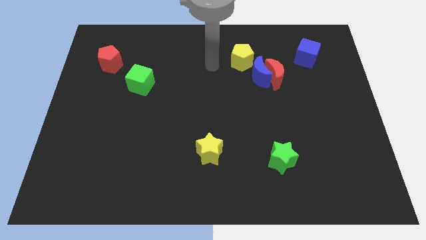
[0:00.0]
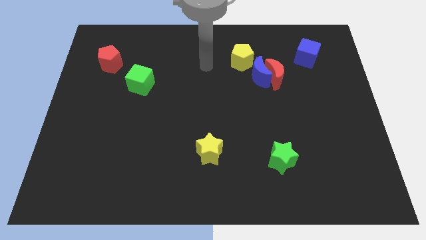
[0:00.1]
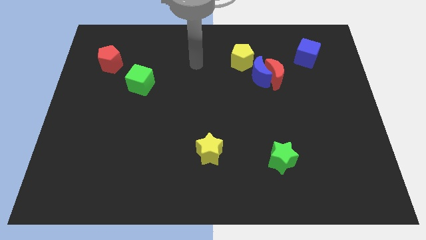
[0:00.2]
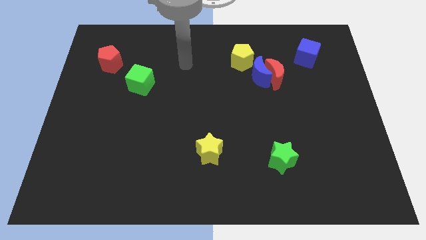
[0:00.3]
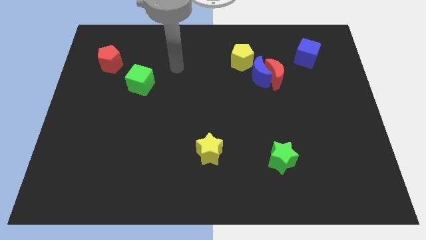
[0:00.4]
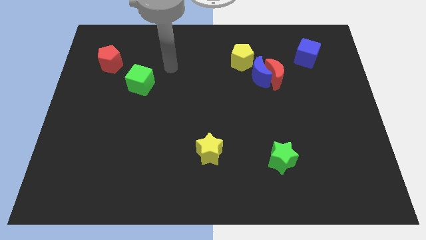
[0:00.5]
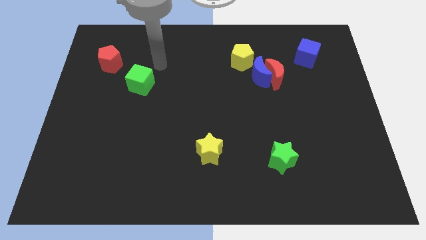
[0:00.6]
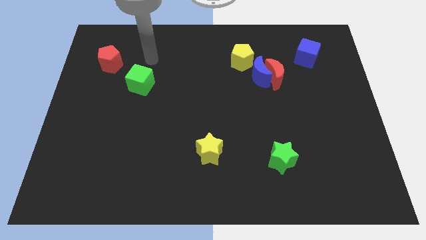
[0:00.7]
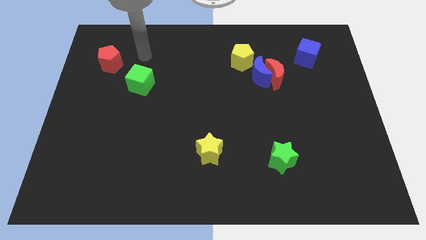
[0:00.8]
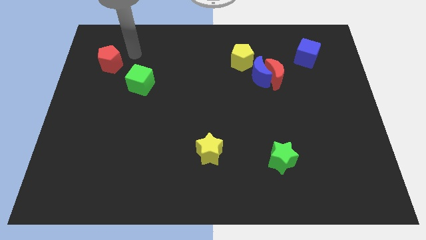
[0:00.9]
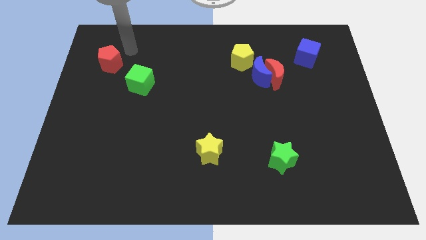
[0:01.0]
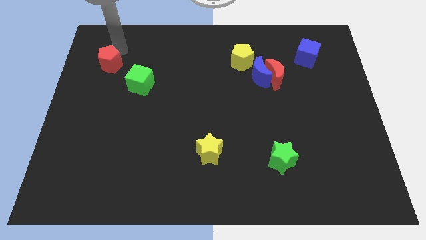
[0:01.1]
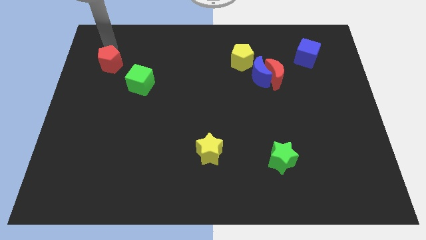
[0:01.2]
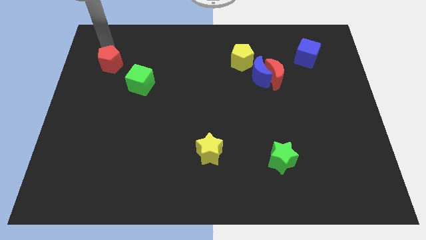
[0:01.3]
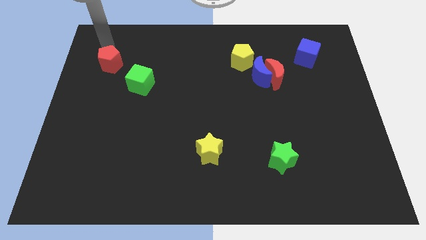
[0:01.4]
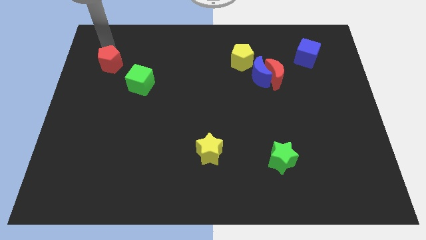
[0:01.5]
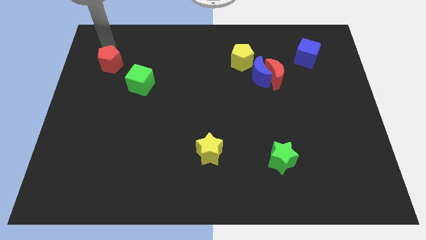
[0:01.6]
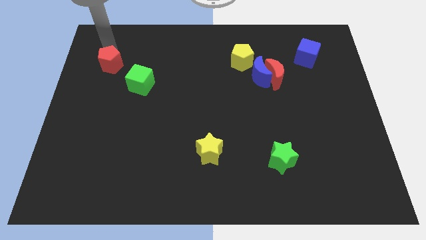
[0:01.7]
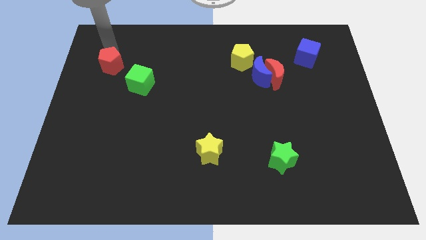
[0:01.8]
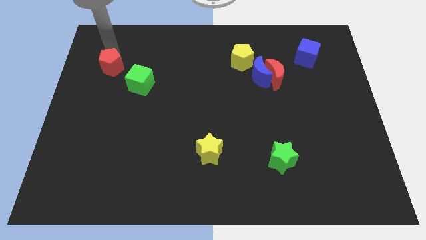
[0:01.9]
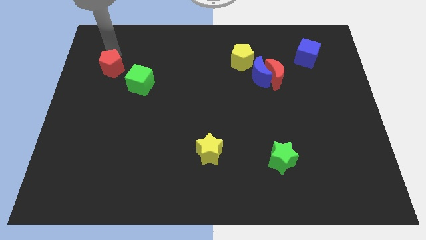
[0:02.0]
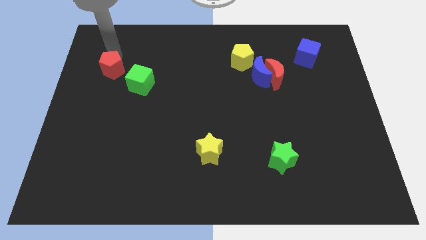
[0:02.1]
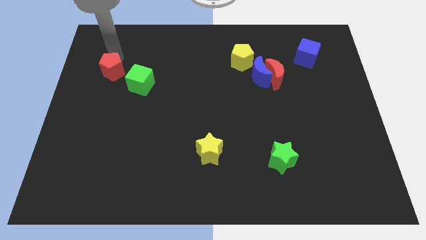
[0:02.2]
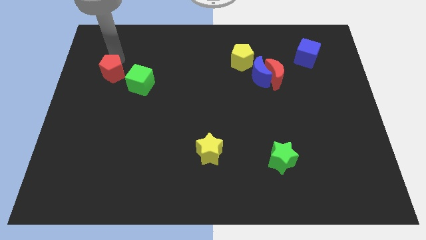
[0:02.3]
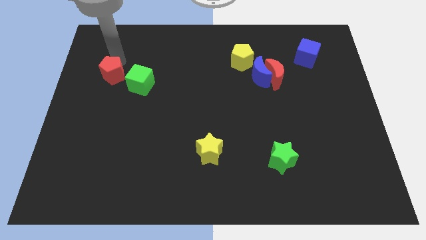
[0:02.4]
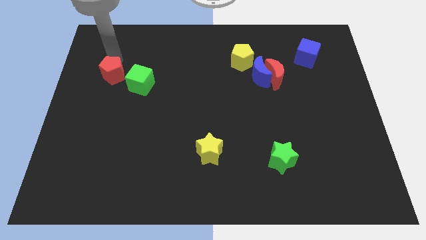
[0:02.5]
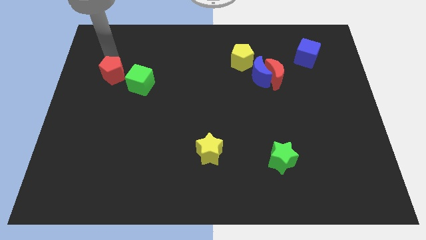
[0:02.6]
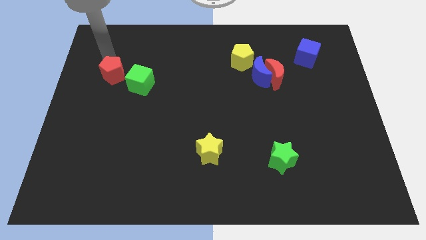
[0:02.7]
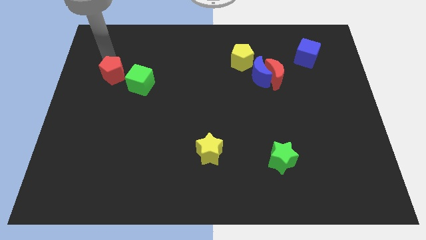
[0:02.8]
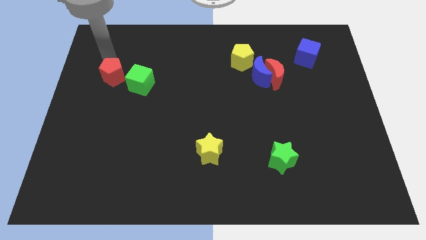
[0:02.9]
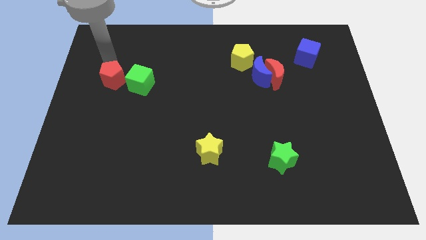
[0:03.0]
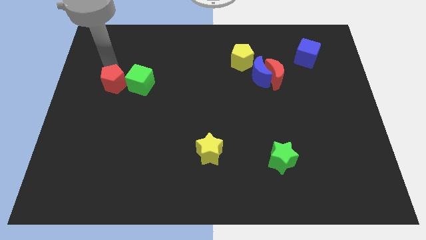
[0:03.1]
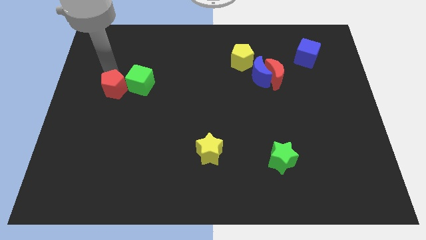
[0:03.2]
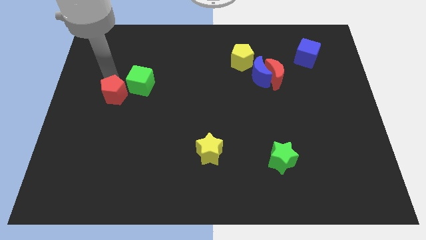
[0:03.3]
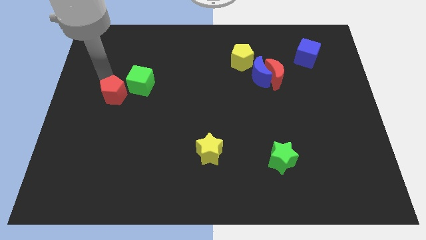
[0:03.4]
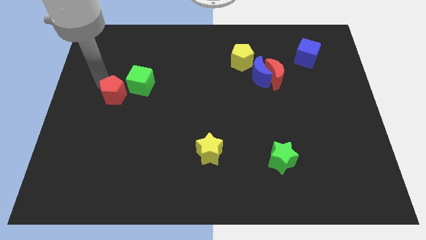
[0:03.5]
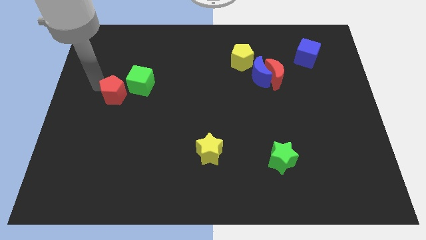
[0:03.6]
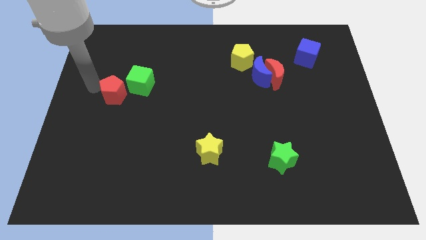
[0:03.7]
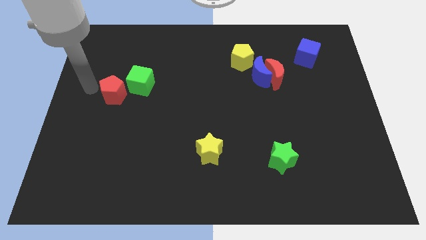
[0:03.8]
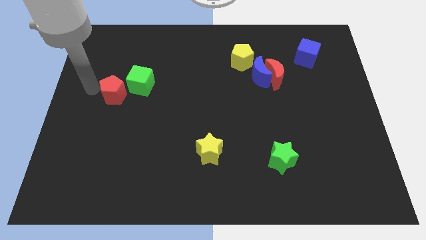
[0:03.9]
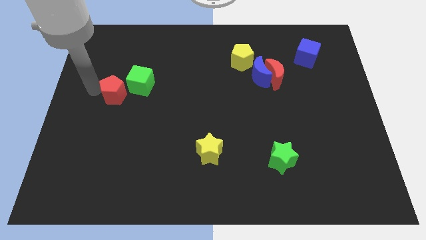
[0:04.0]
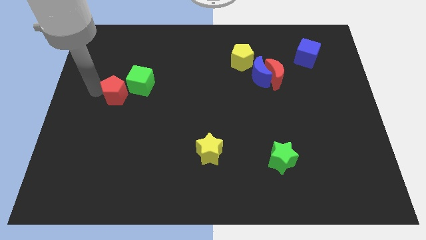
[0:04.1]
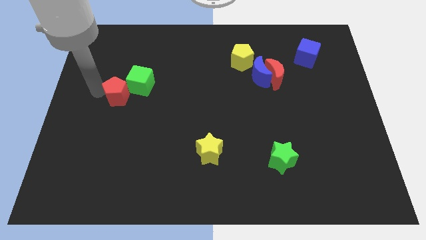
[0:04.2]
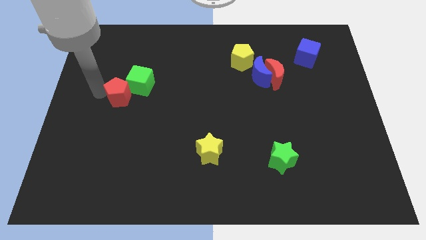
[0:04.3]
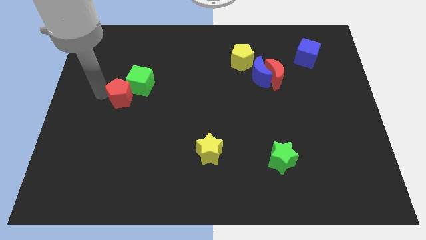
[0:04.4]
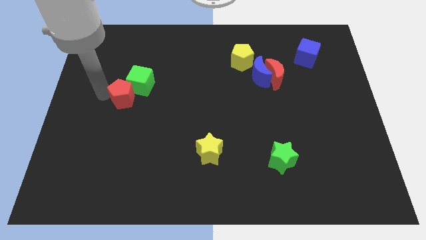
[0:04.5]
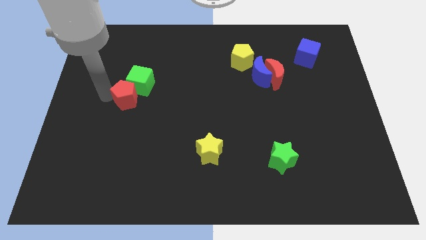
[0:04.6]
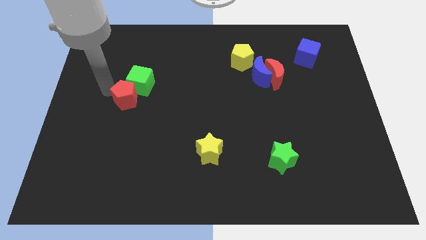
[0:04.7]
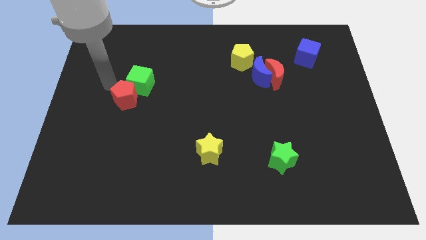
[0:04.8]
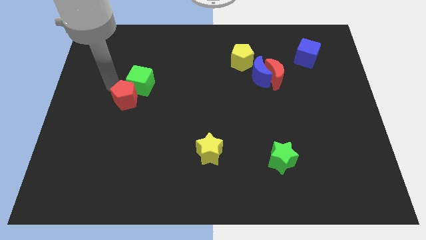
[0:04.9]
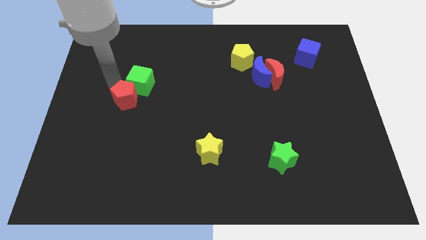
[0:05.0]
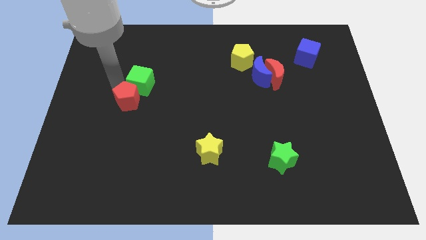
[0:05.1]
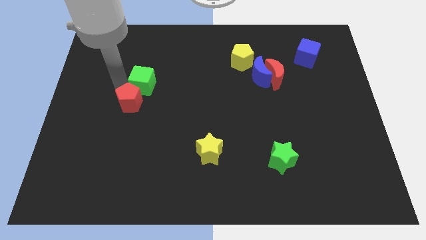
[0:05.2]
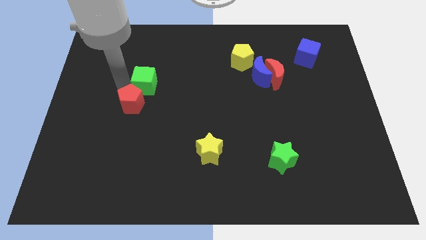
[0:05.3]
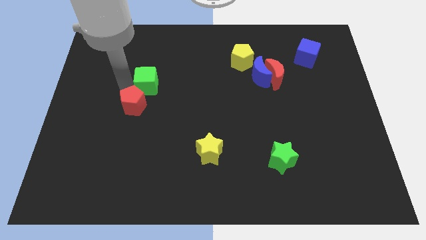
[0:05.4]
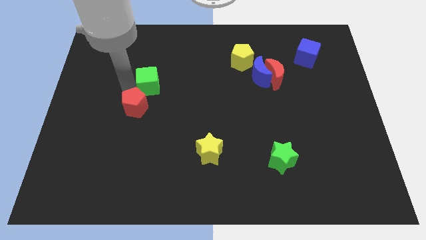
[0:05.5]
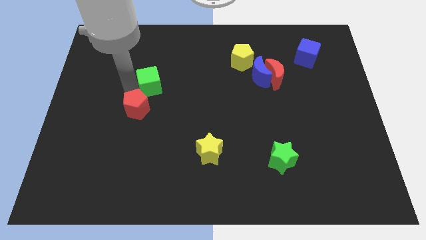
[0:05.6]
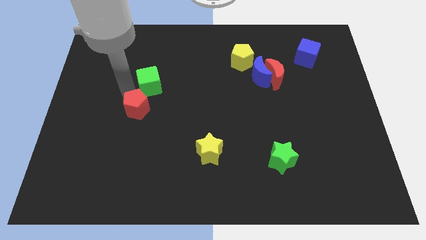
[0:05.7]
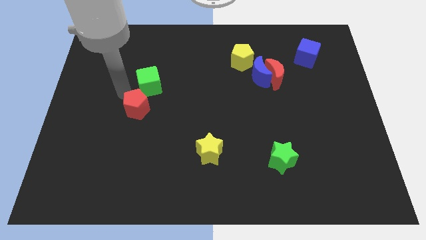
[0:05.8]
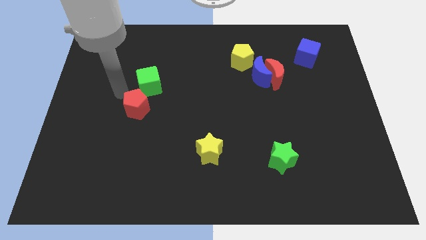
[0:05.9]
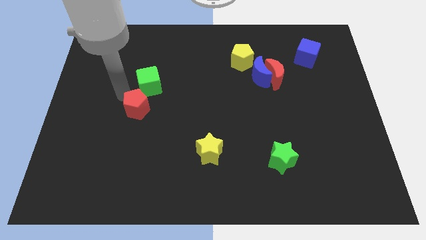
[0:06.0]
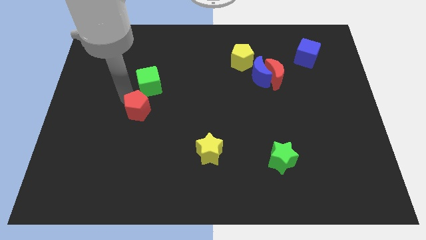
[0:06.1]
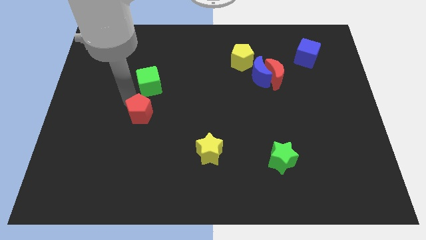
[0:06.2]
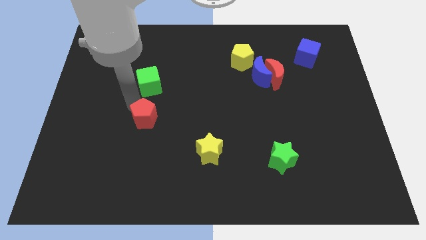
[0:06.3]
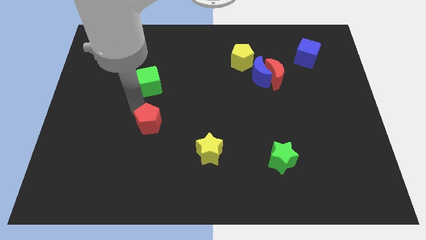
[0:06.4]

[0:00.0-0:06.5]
slide the red pentagon down and right diagonally

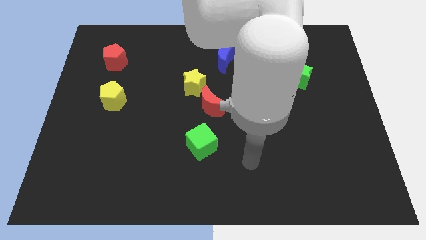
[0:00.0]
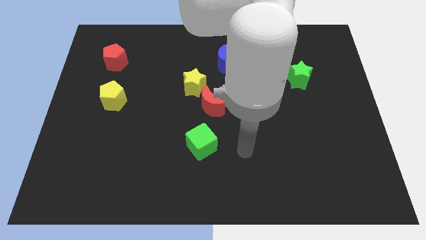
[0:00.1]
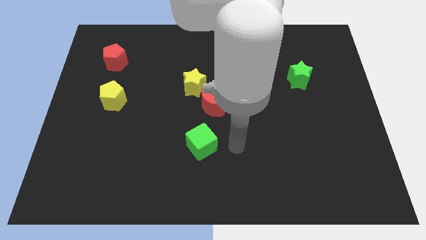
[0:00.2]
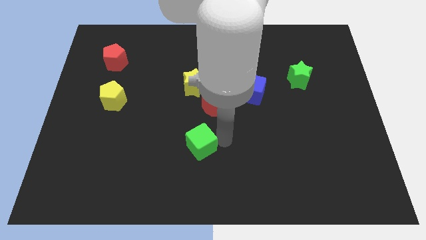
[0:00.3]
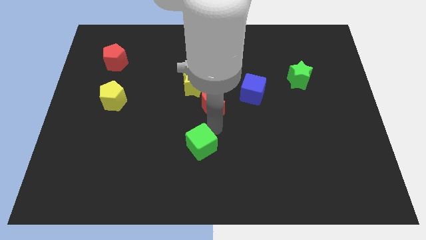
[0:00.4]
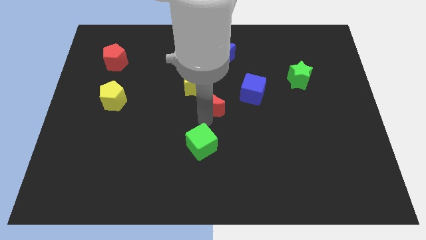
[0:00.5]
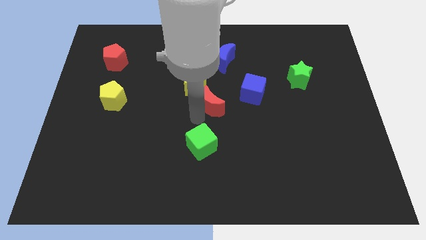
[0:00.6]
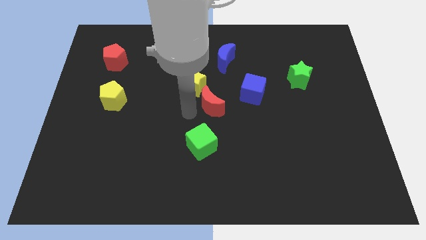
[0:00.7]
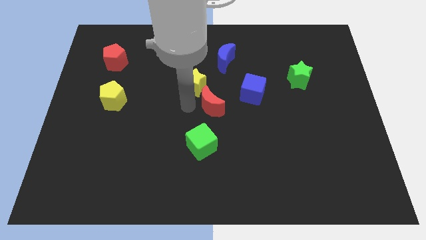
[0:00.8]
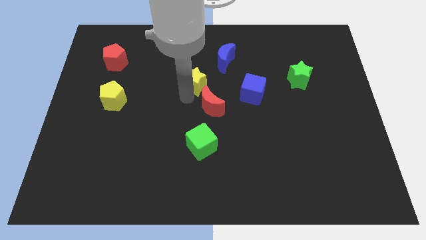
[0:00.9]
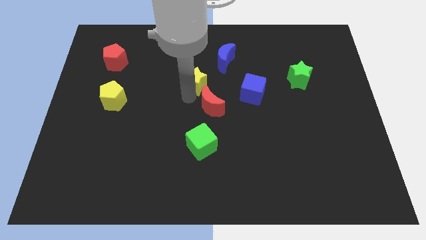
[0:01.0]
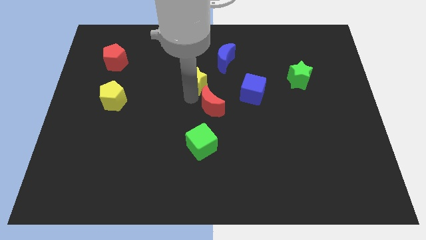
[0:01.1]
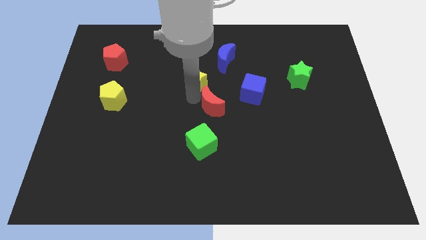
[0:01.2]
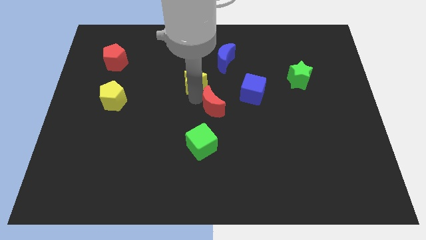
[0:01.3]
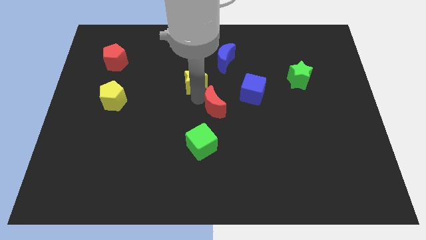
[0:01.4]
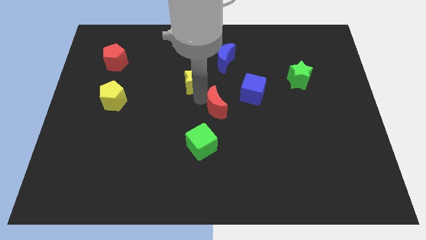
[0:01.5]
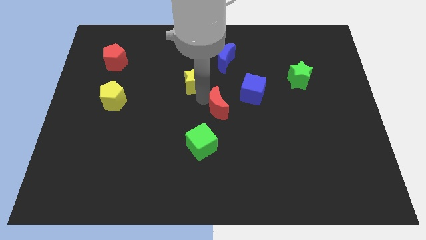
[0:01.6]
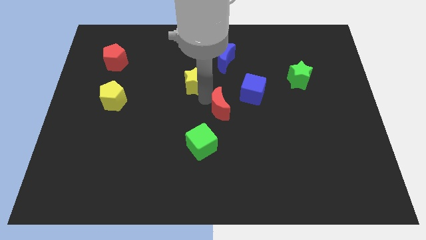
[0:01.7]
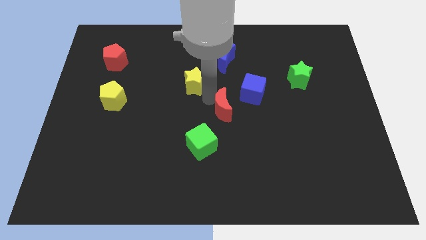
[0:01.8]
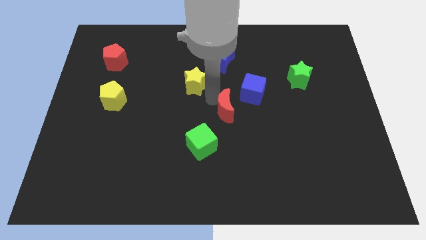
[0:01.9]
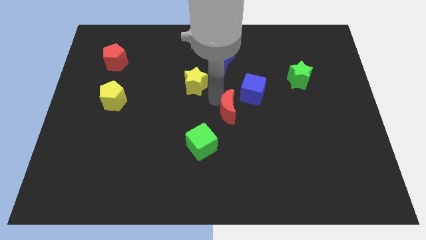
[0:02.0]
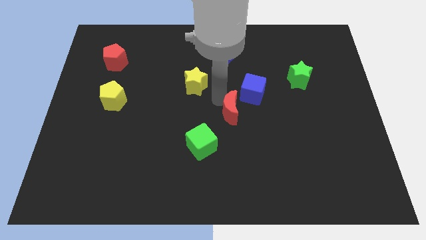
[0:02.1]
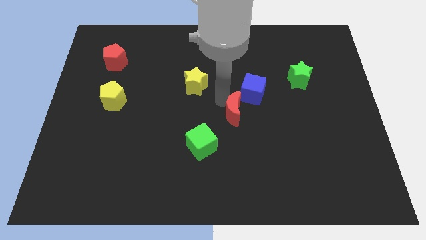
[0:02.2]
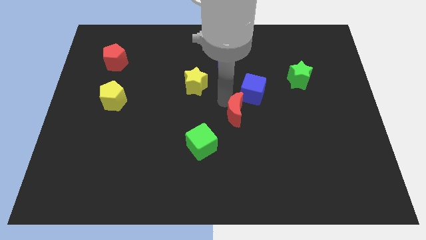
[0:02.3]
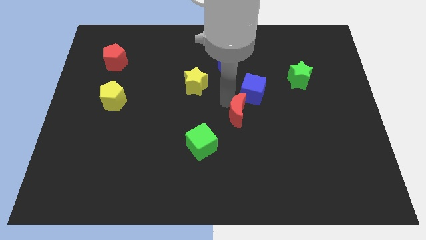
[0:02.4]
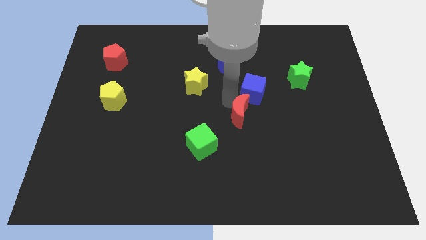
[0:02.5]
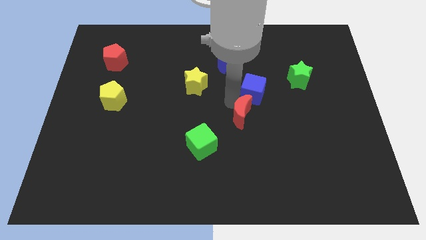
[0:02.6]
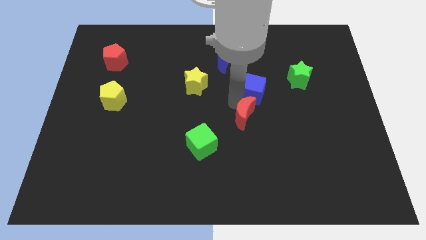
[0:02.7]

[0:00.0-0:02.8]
slightly push the red moon down and to the right diagonally
